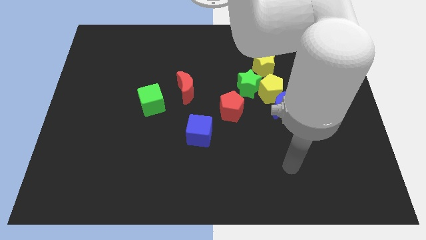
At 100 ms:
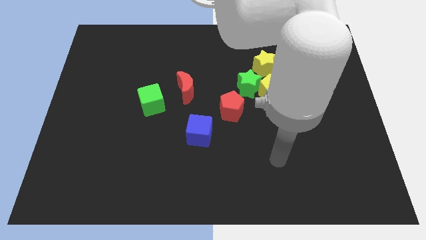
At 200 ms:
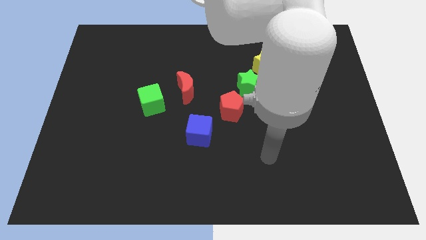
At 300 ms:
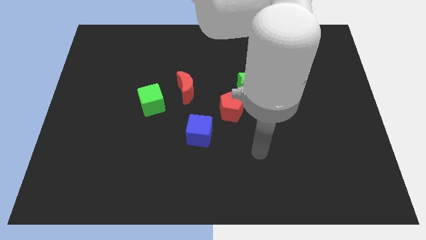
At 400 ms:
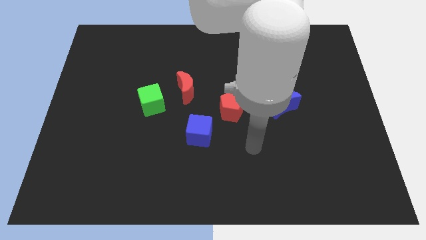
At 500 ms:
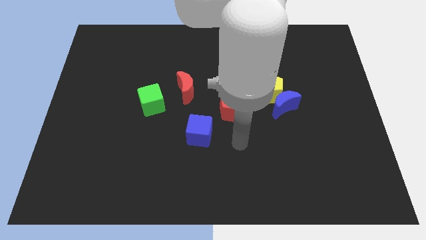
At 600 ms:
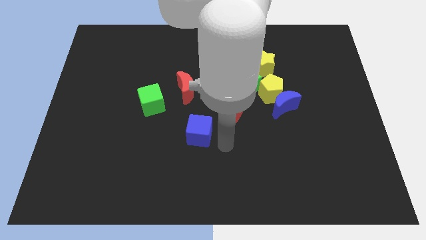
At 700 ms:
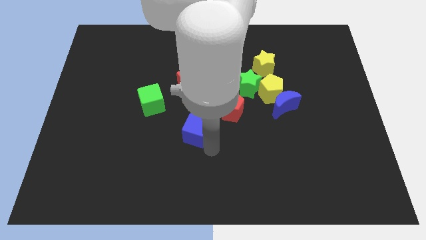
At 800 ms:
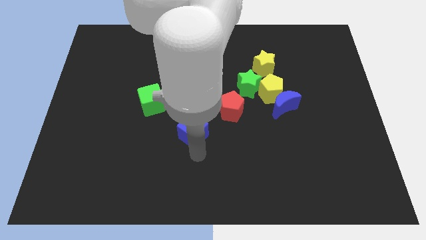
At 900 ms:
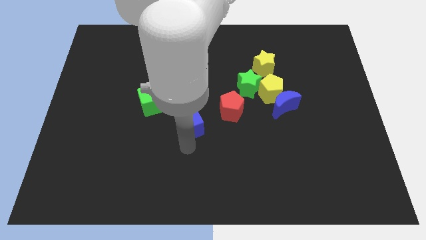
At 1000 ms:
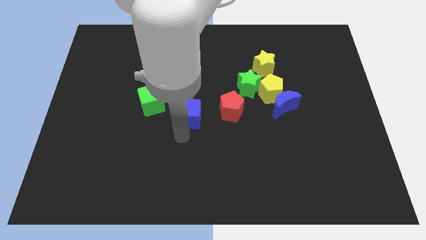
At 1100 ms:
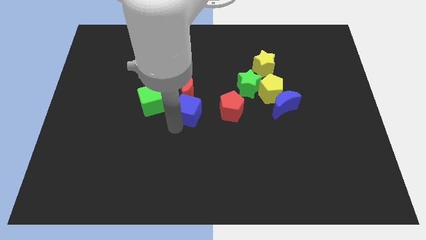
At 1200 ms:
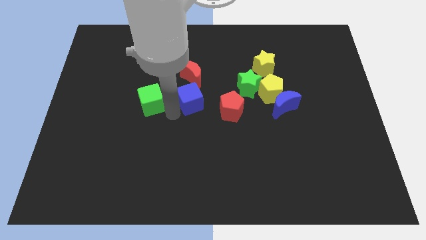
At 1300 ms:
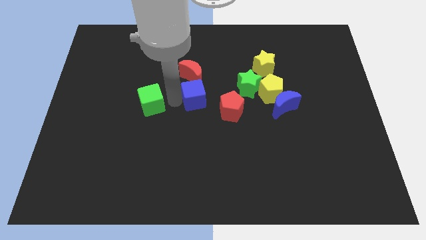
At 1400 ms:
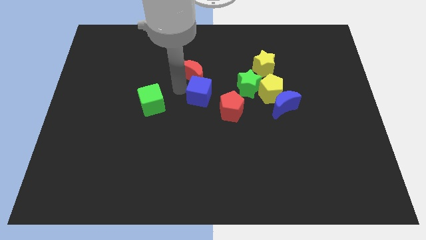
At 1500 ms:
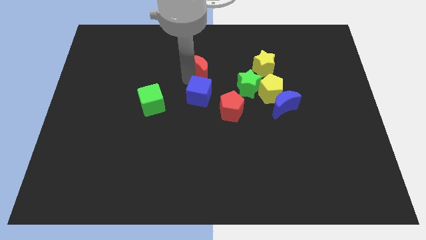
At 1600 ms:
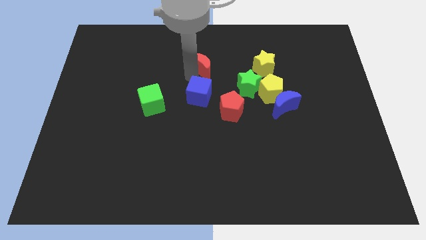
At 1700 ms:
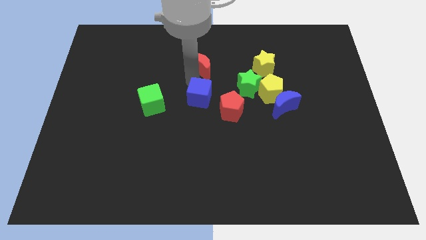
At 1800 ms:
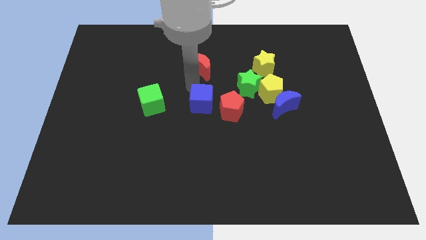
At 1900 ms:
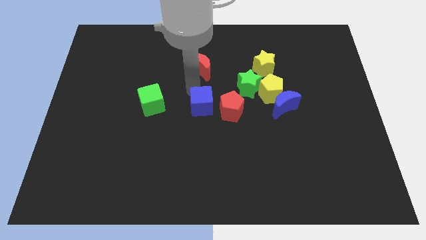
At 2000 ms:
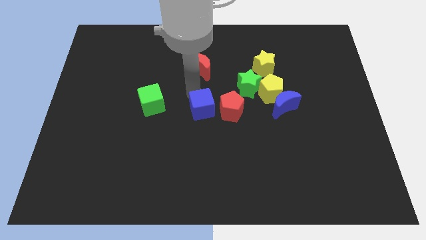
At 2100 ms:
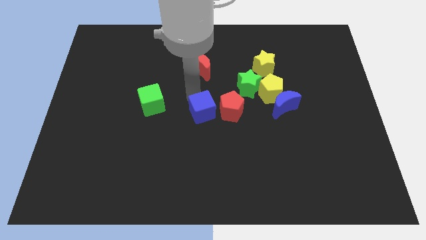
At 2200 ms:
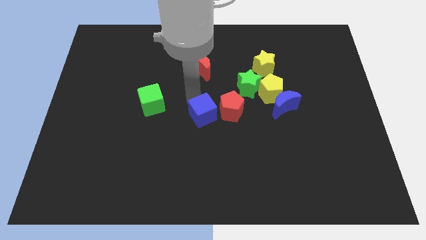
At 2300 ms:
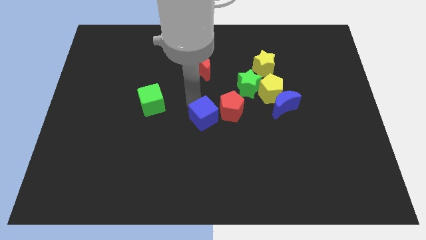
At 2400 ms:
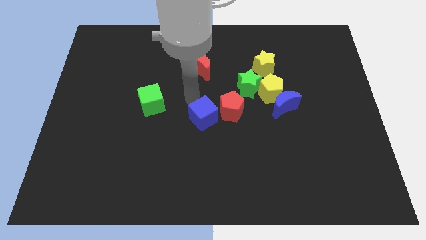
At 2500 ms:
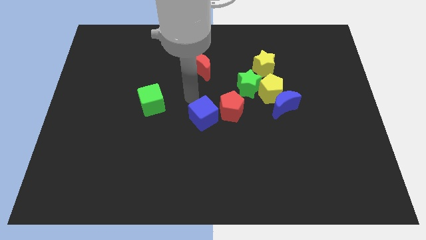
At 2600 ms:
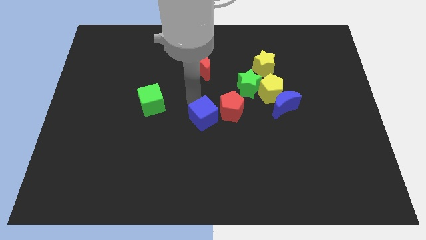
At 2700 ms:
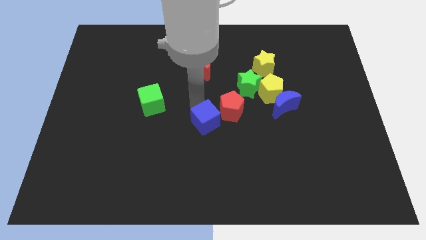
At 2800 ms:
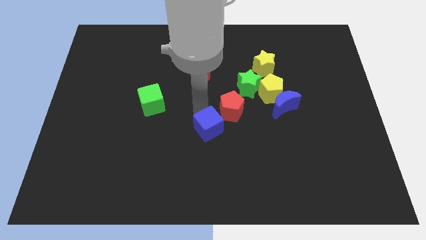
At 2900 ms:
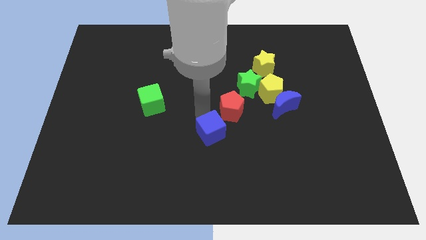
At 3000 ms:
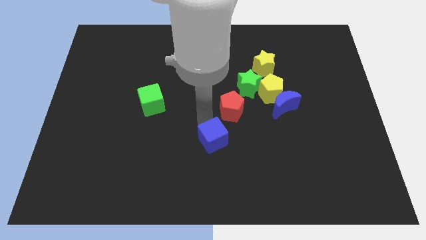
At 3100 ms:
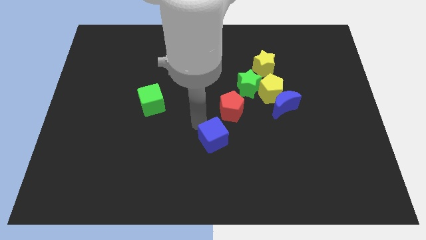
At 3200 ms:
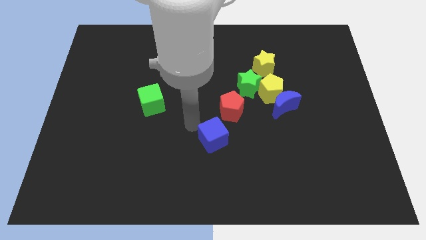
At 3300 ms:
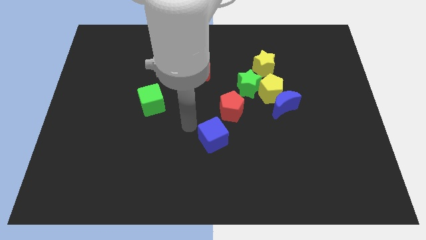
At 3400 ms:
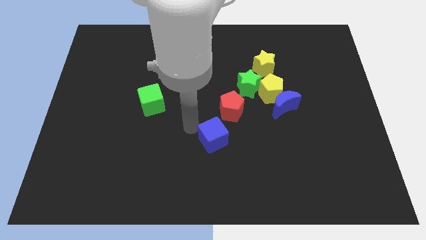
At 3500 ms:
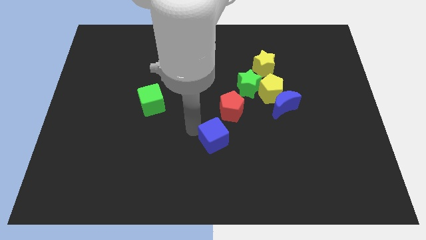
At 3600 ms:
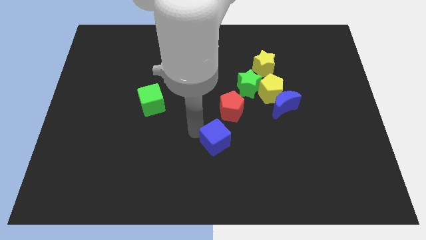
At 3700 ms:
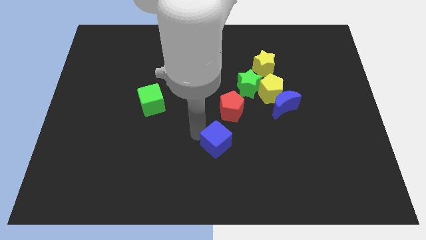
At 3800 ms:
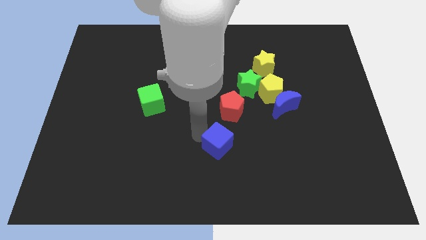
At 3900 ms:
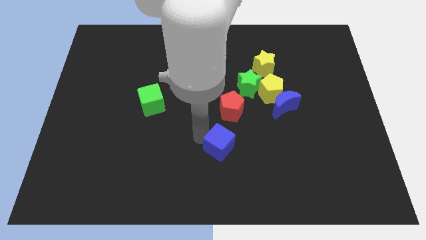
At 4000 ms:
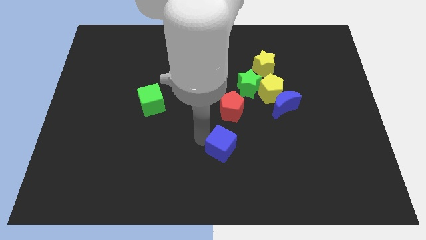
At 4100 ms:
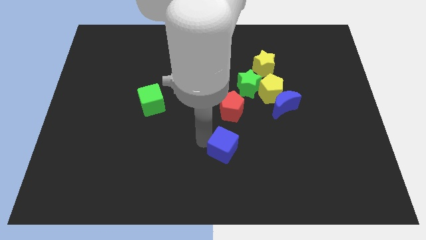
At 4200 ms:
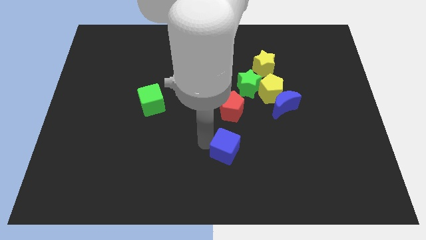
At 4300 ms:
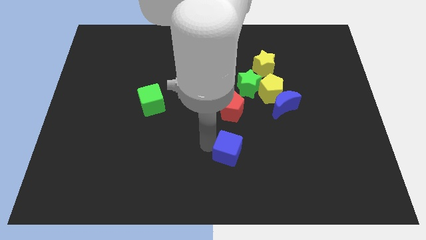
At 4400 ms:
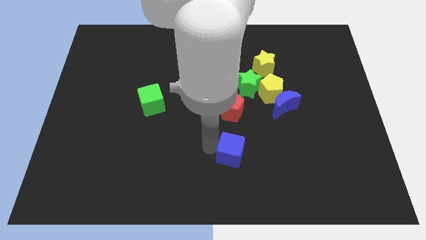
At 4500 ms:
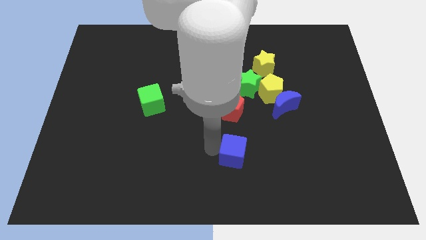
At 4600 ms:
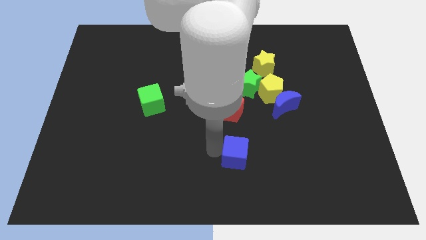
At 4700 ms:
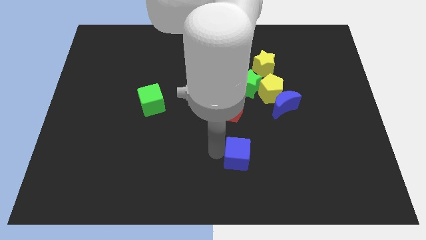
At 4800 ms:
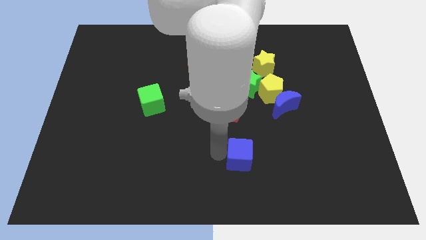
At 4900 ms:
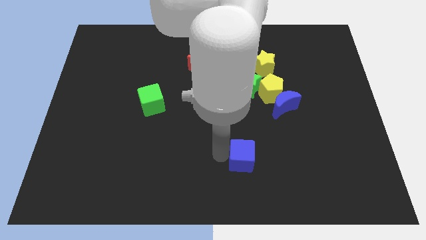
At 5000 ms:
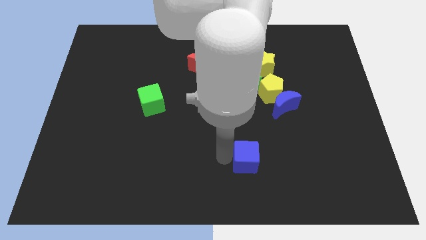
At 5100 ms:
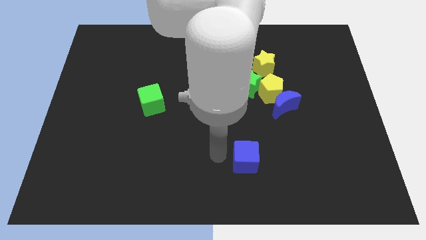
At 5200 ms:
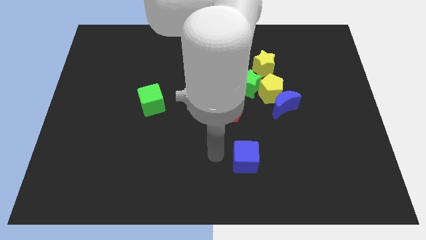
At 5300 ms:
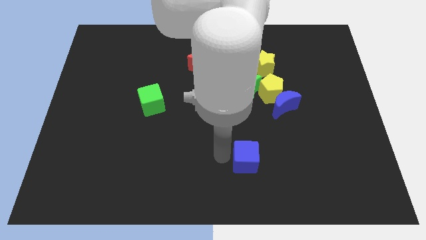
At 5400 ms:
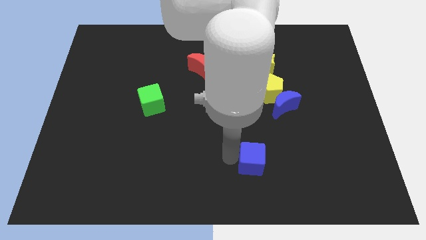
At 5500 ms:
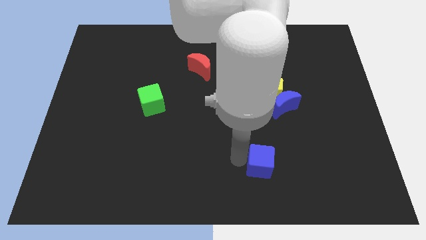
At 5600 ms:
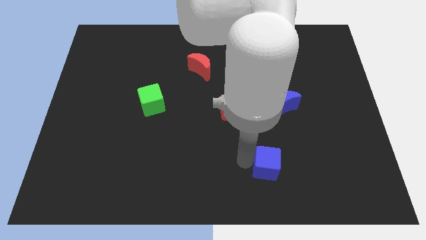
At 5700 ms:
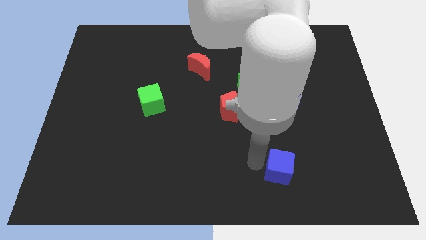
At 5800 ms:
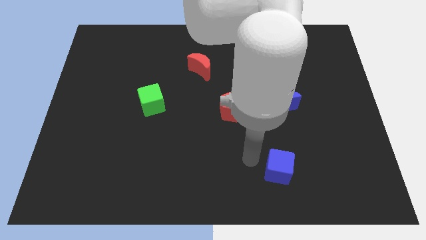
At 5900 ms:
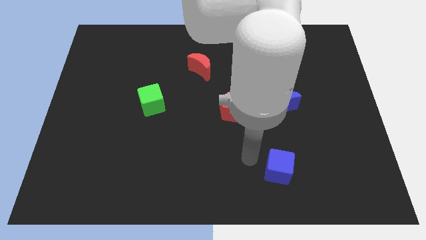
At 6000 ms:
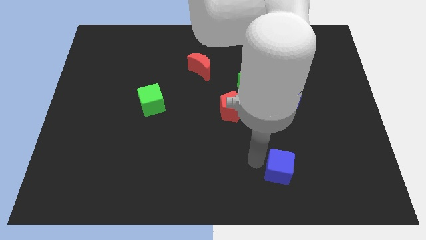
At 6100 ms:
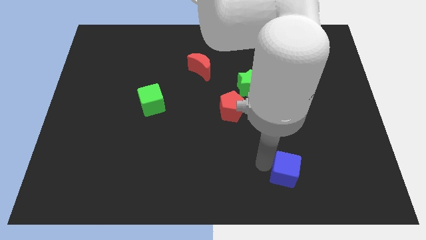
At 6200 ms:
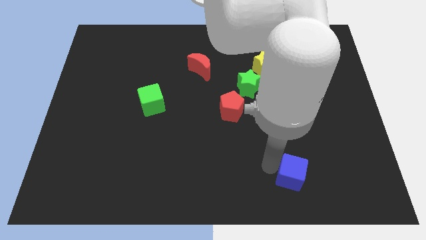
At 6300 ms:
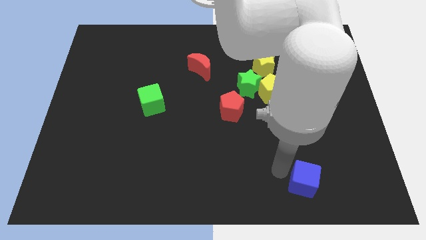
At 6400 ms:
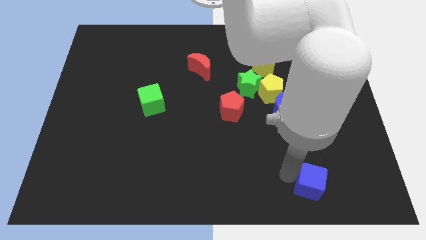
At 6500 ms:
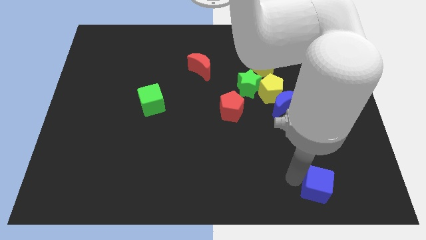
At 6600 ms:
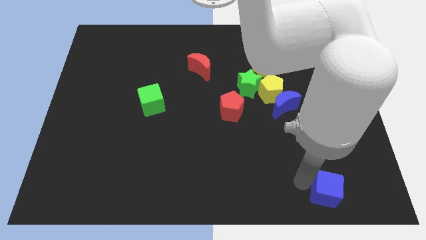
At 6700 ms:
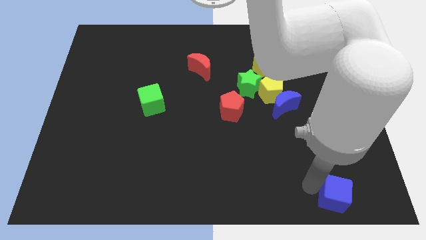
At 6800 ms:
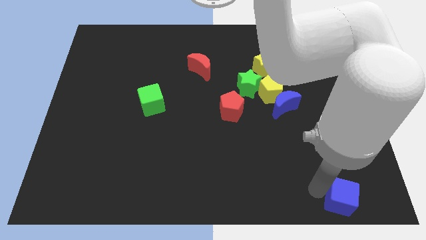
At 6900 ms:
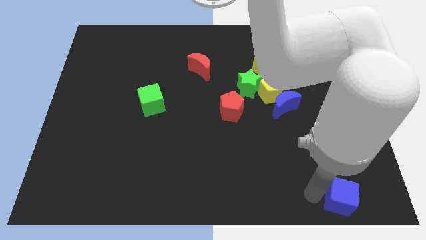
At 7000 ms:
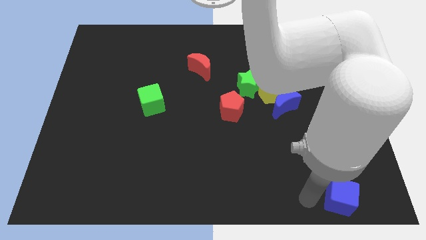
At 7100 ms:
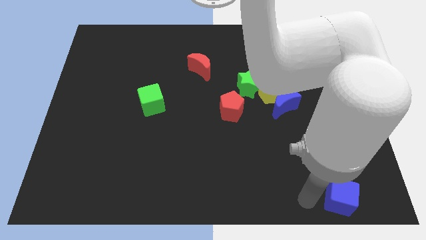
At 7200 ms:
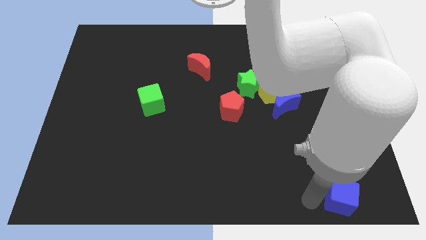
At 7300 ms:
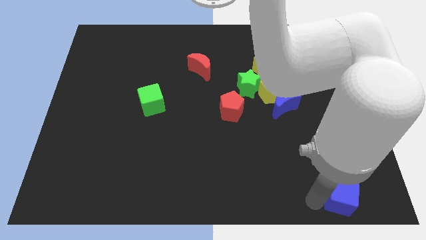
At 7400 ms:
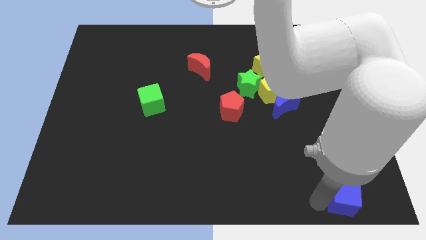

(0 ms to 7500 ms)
slide the blue cube to the bottom right corner
